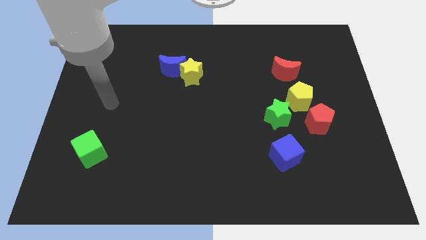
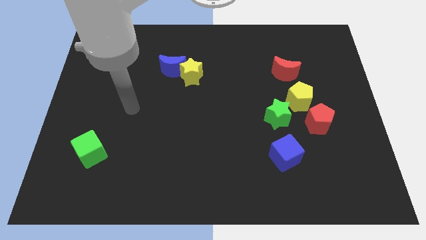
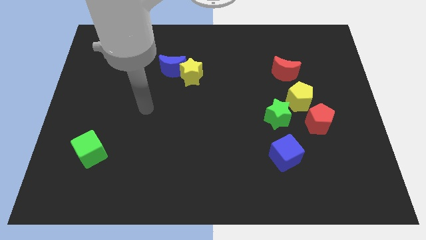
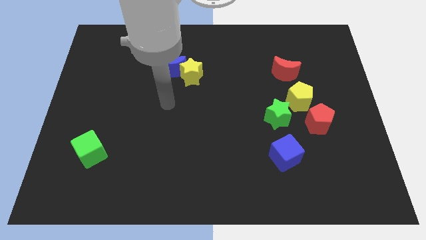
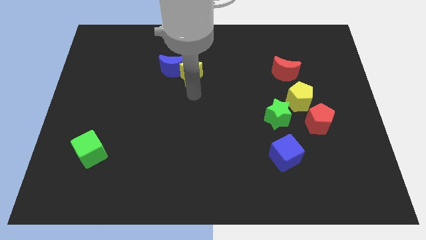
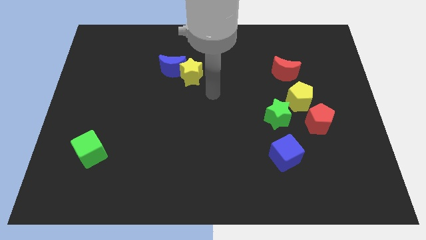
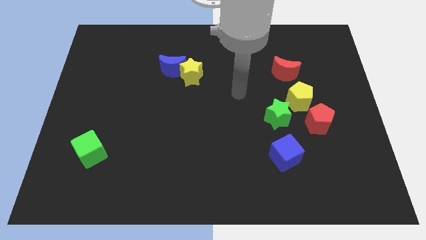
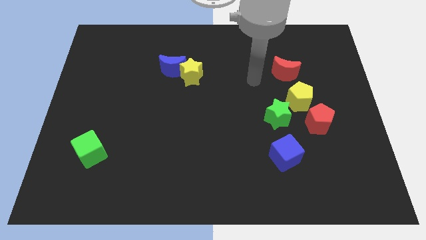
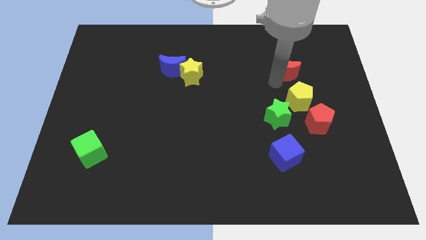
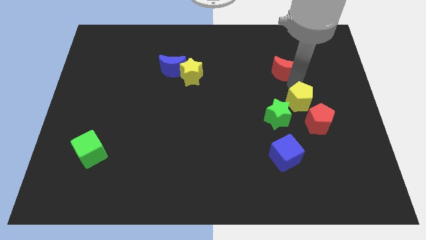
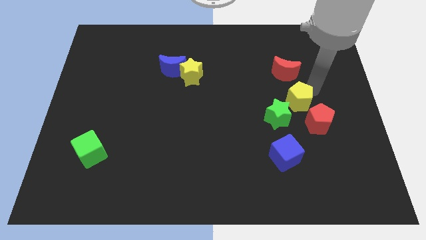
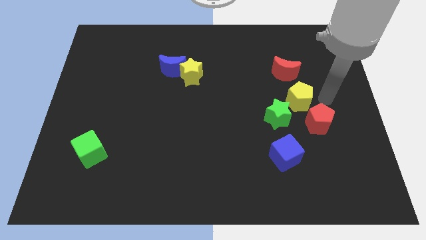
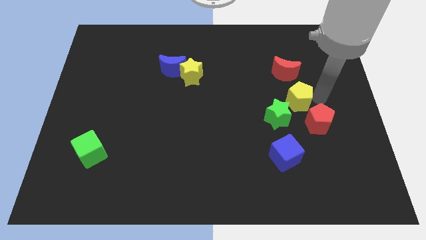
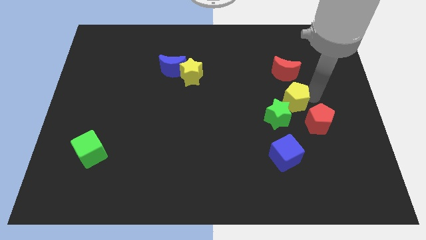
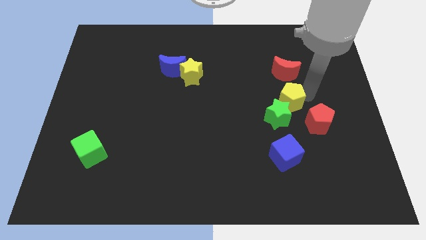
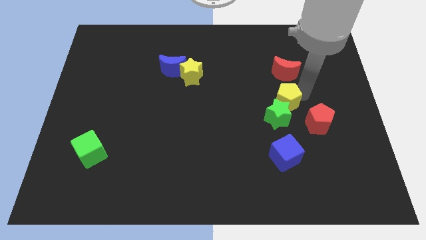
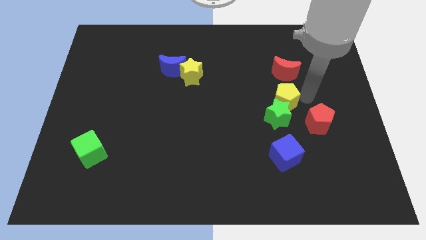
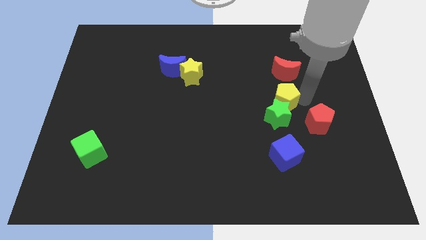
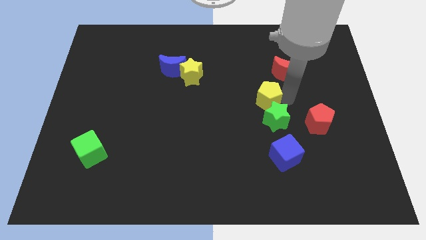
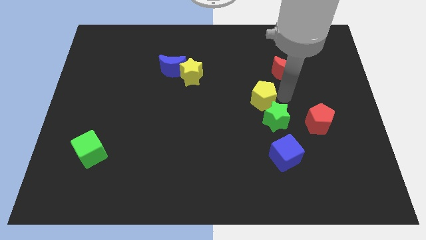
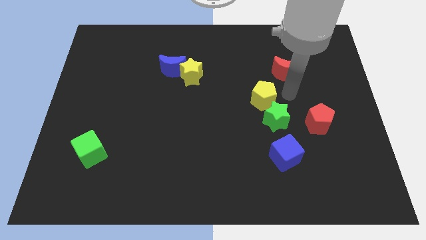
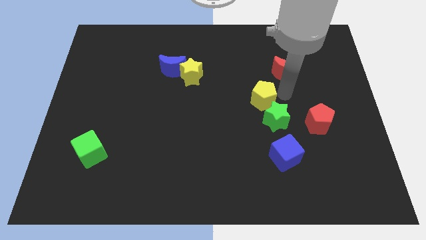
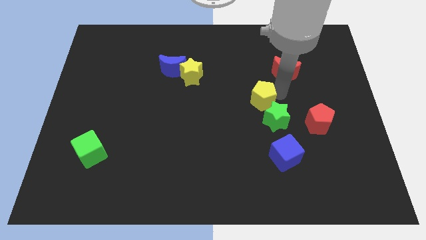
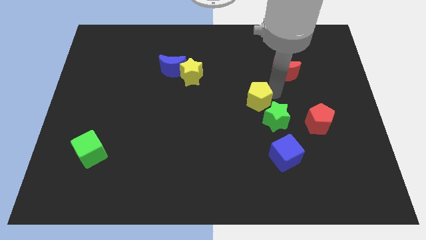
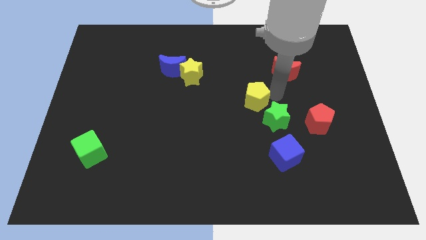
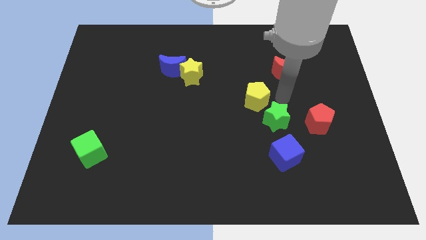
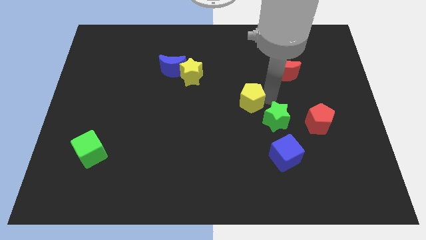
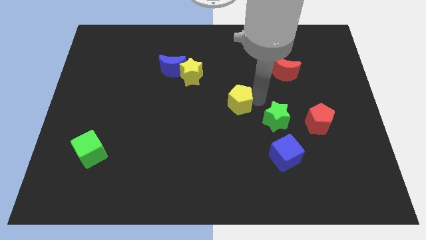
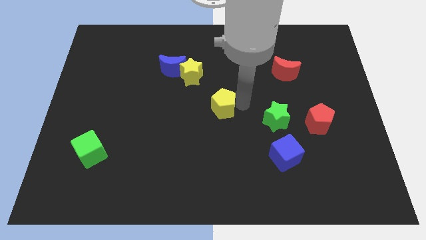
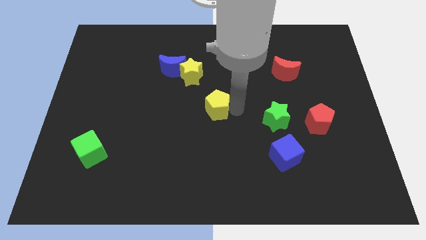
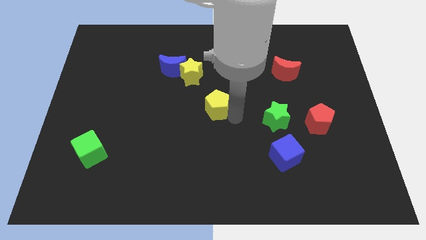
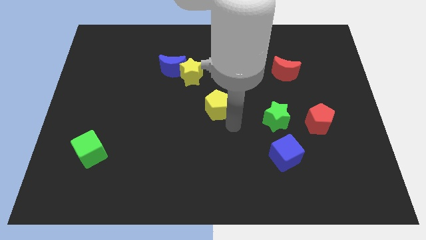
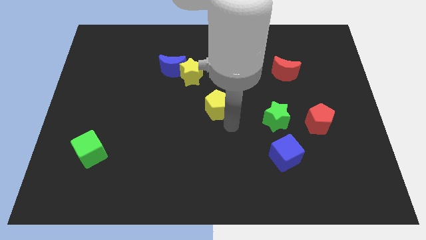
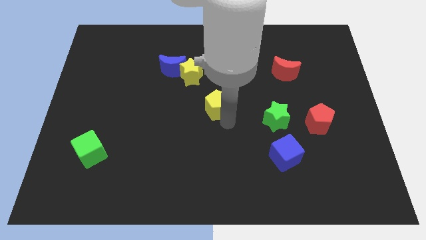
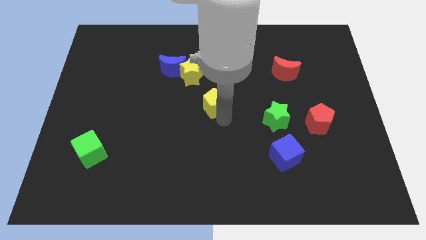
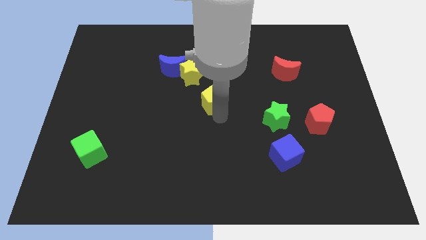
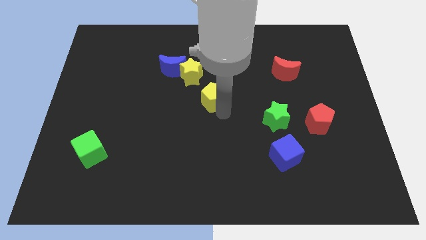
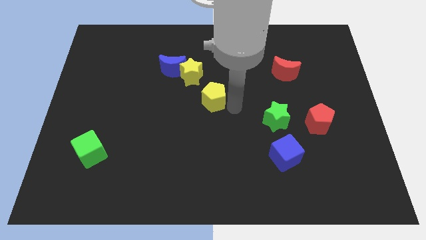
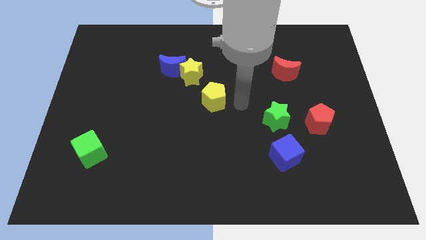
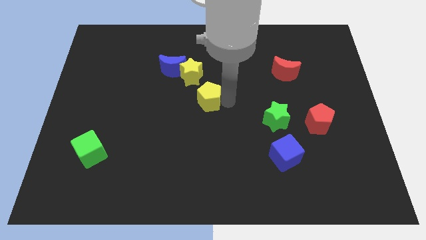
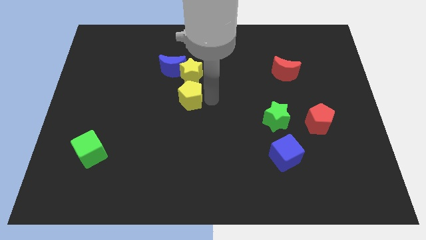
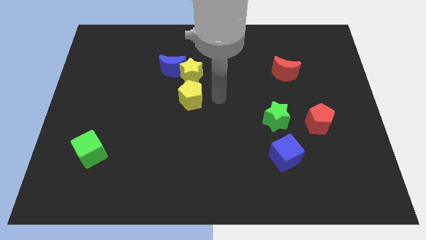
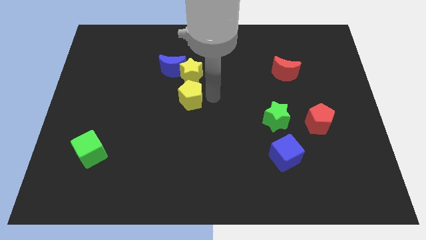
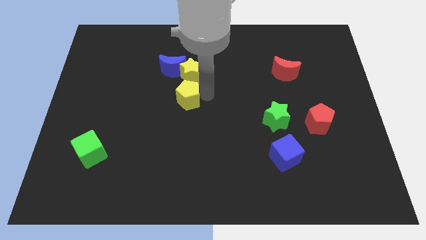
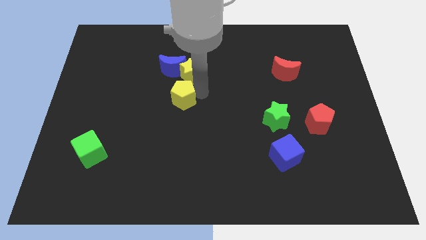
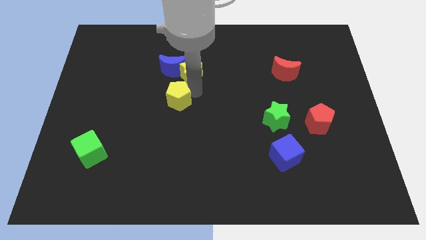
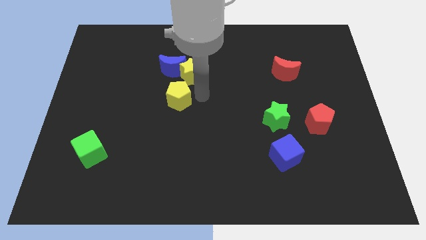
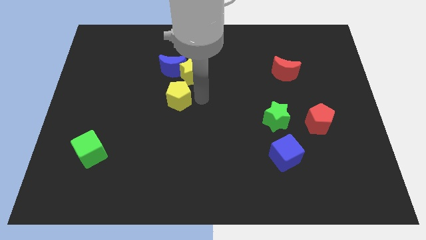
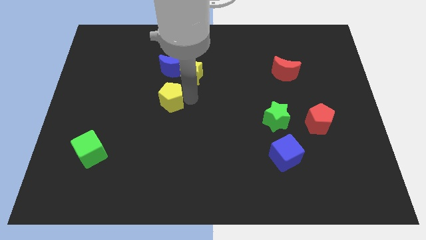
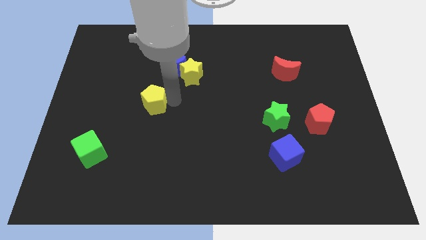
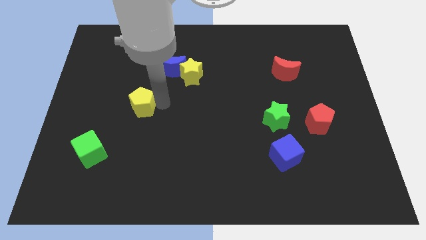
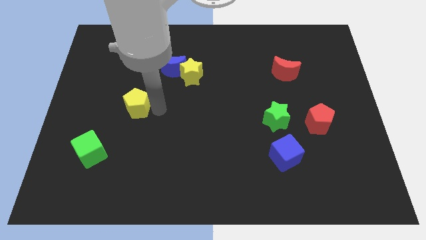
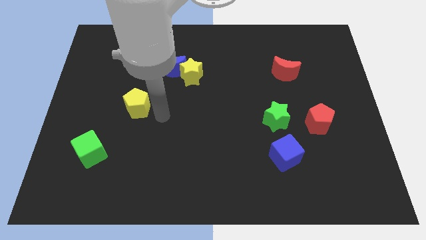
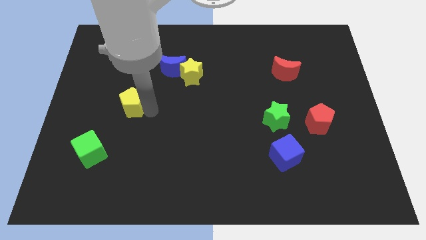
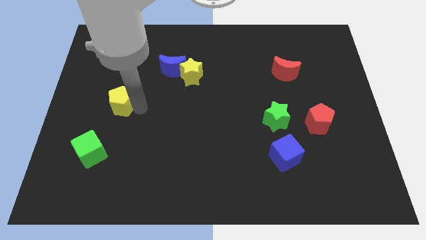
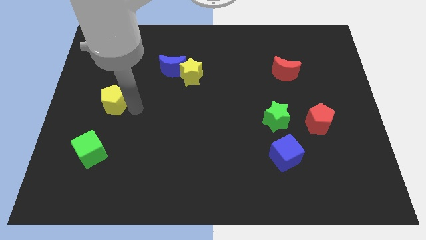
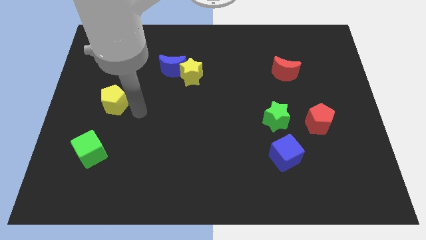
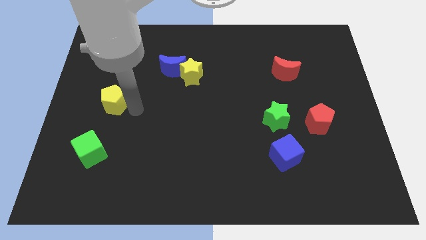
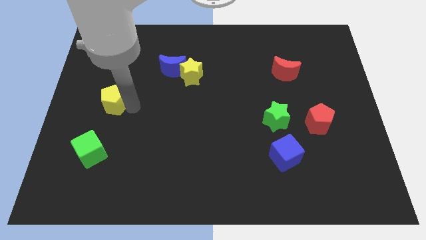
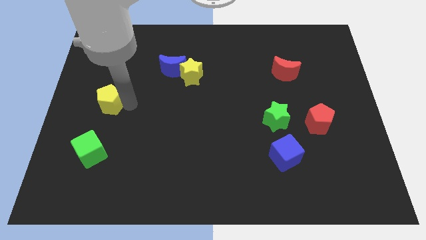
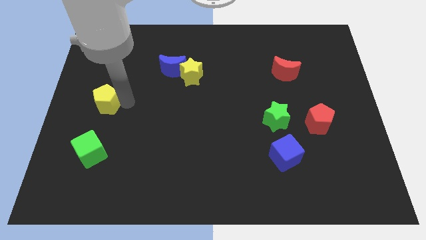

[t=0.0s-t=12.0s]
slide the yellow pentagon to the left side of the board

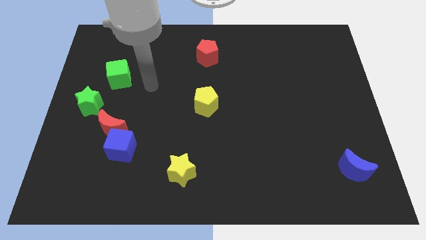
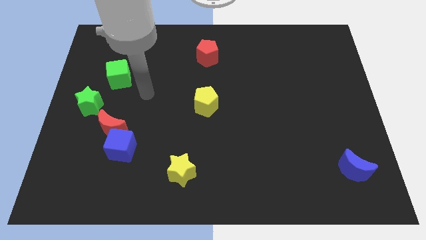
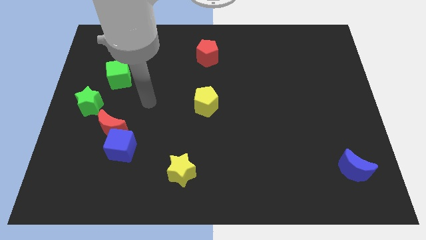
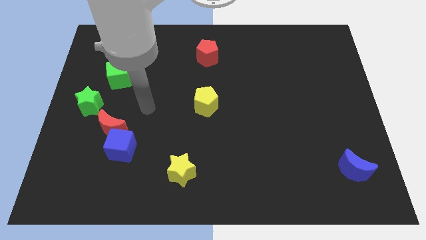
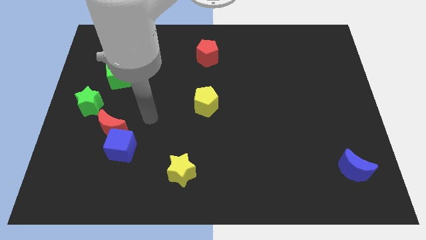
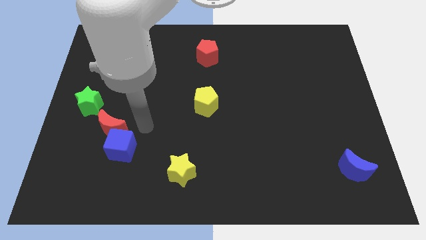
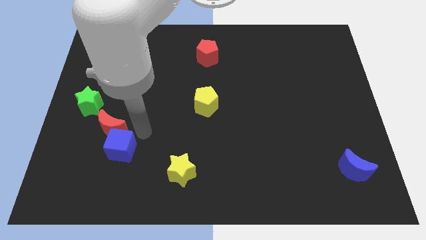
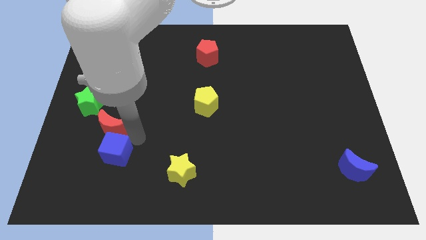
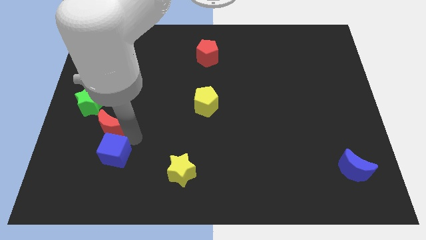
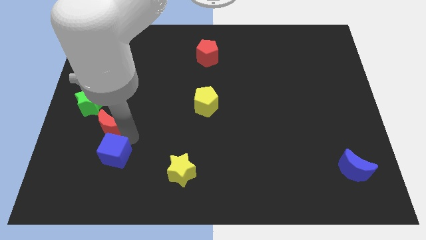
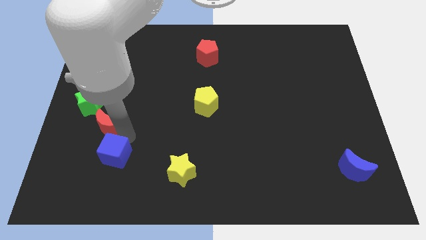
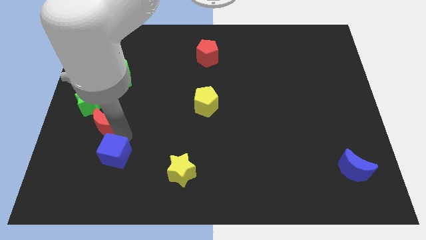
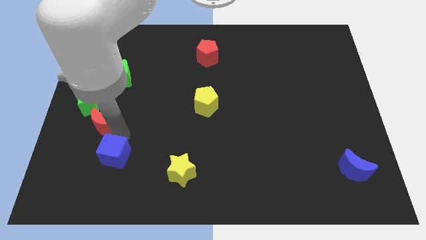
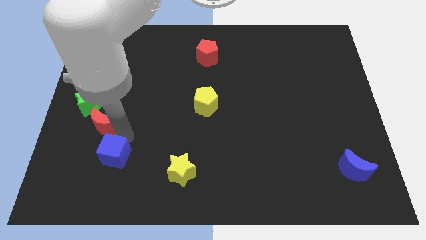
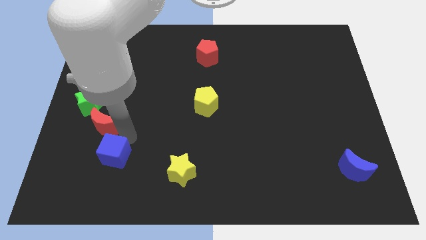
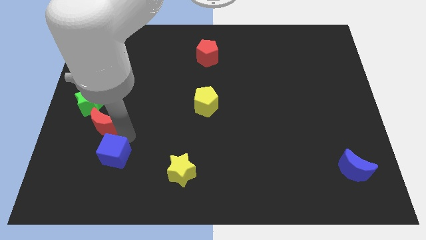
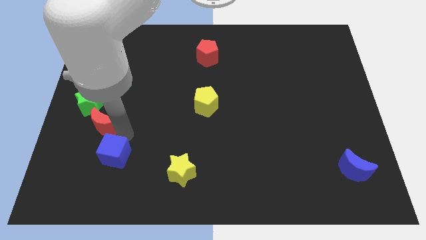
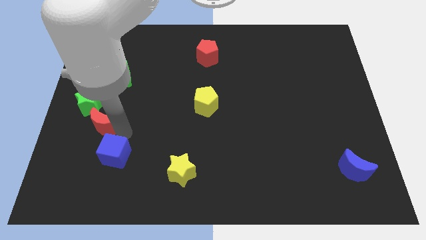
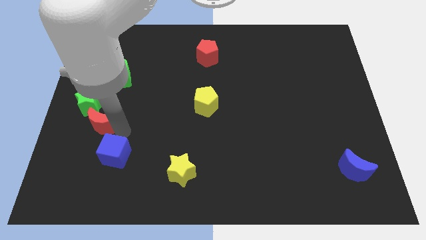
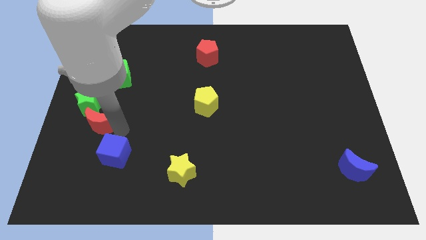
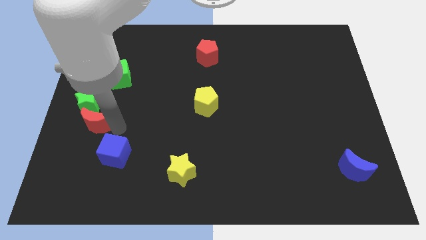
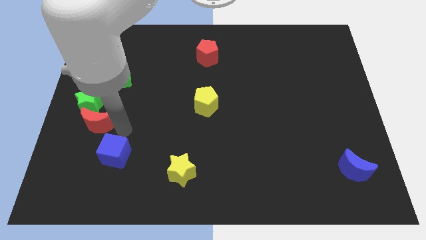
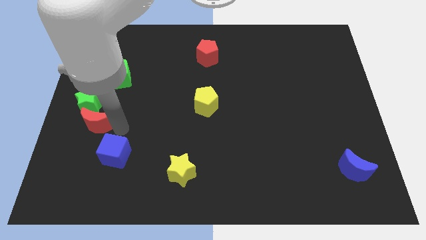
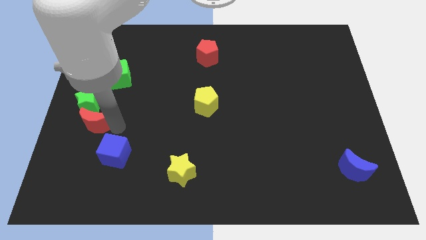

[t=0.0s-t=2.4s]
slide the red moon to the center left
